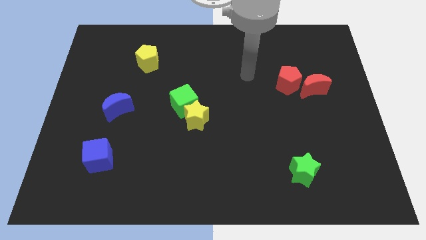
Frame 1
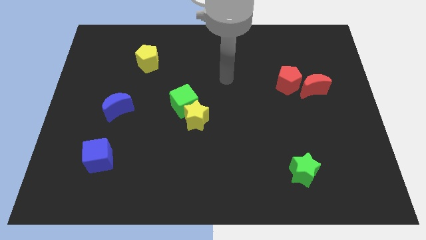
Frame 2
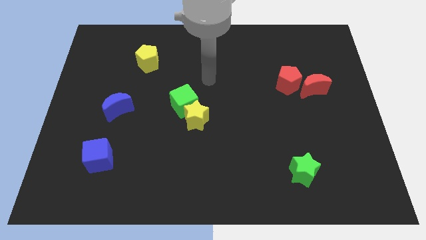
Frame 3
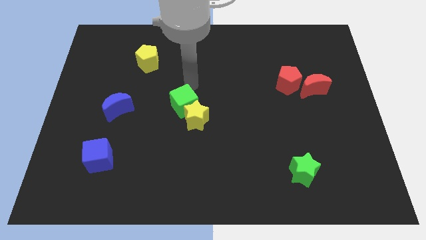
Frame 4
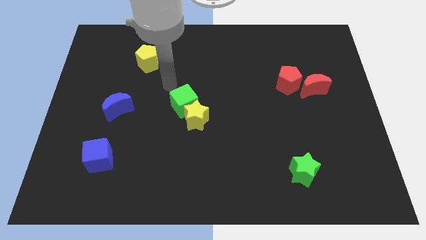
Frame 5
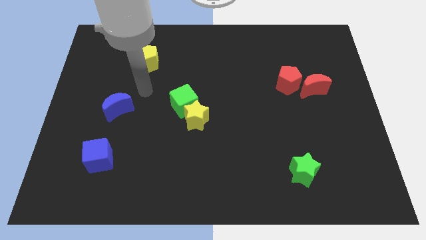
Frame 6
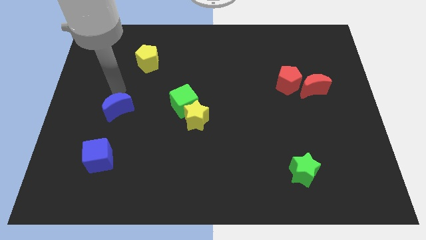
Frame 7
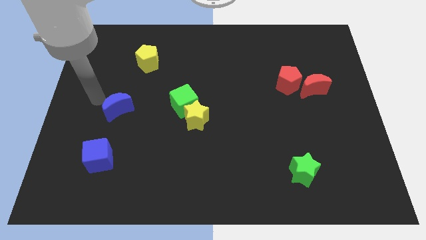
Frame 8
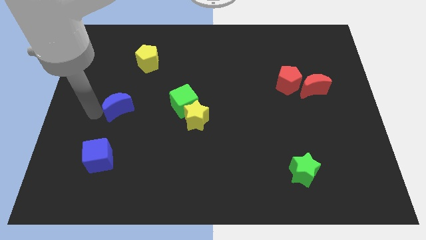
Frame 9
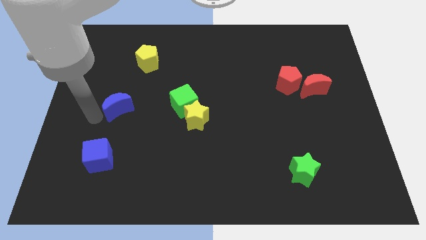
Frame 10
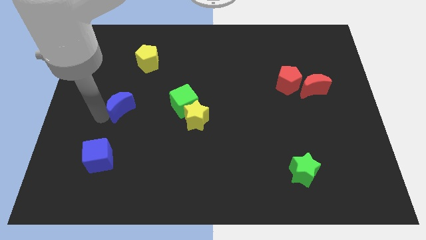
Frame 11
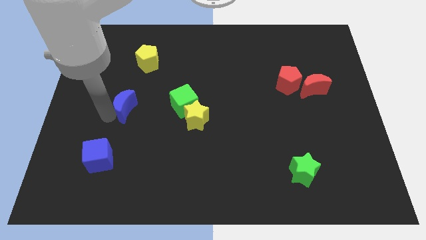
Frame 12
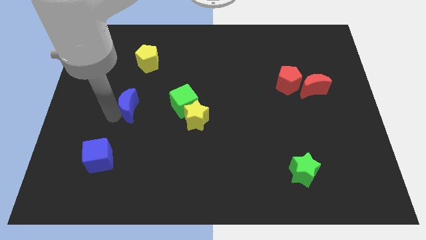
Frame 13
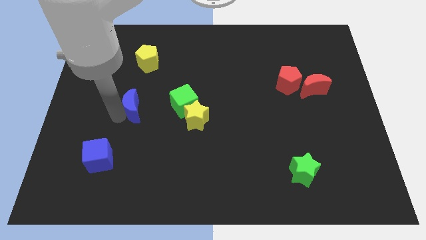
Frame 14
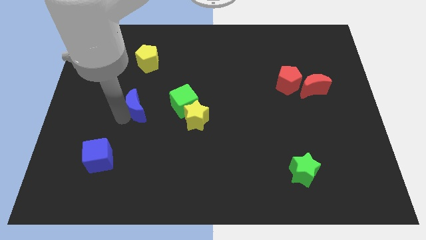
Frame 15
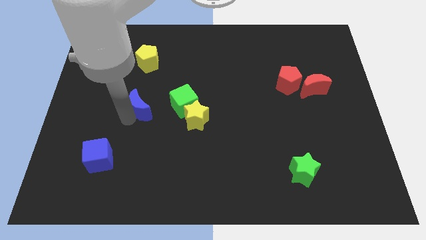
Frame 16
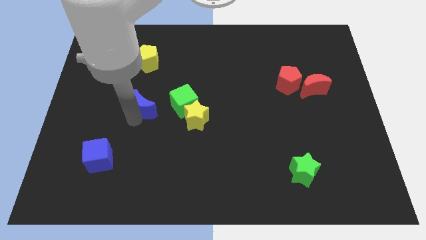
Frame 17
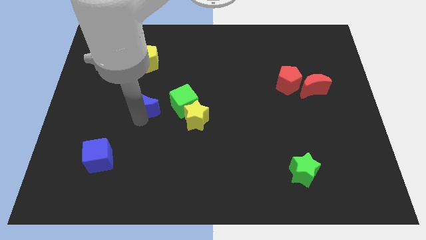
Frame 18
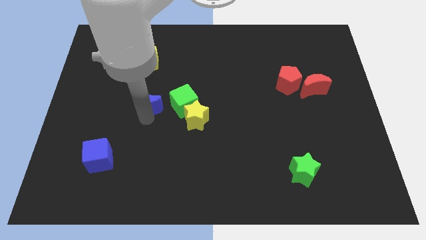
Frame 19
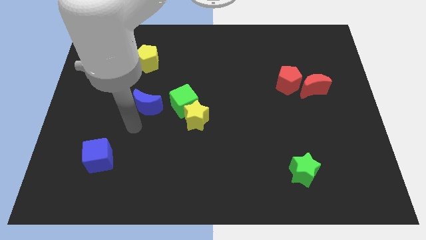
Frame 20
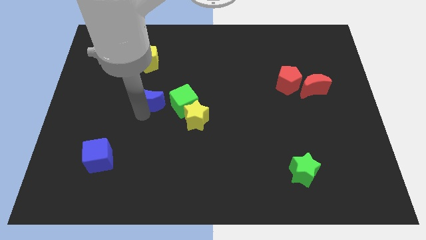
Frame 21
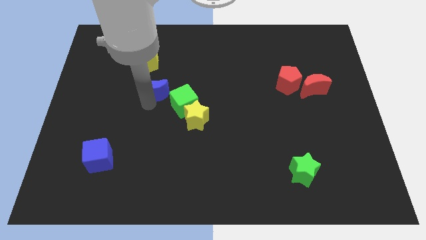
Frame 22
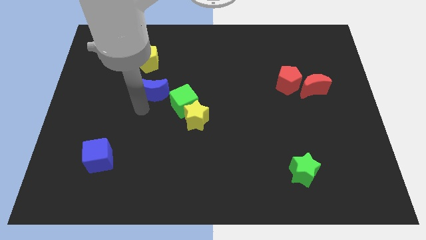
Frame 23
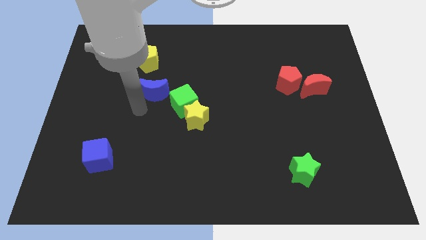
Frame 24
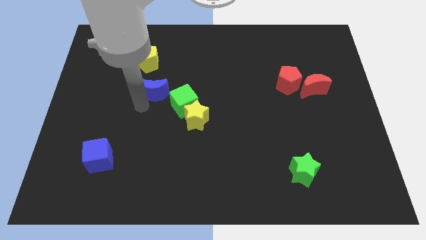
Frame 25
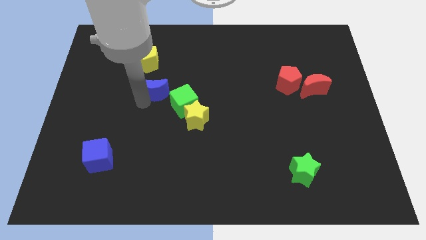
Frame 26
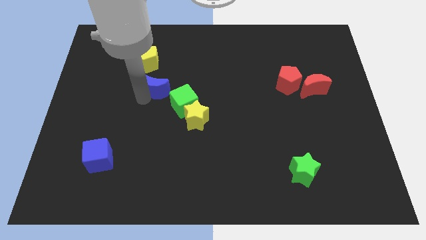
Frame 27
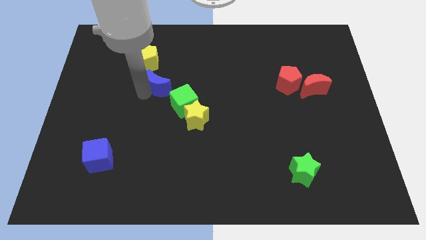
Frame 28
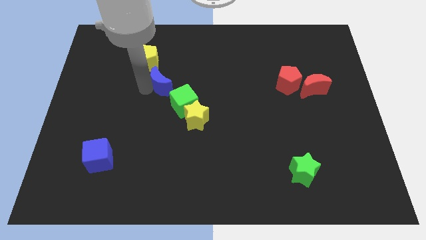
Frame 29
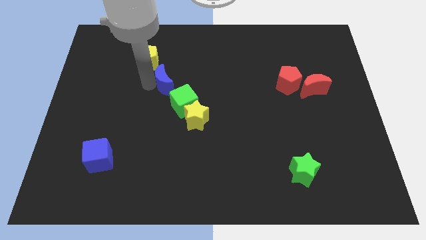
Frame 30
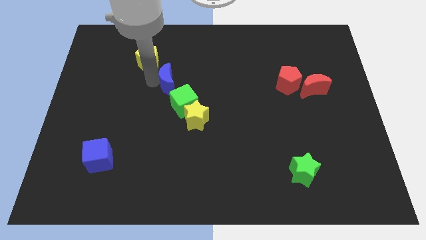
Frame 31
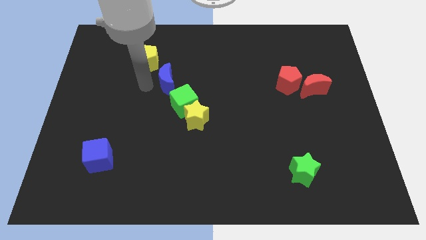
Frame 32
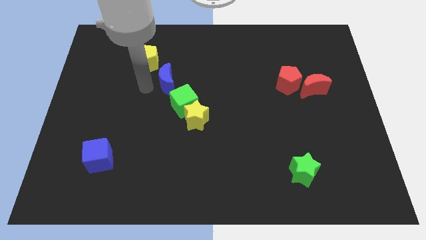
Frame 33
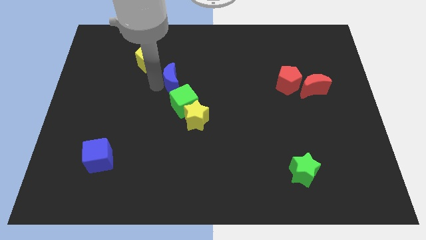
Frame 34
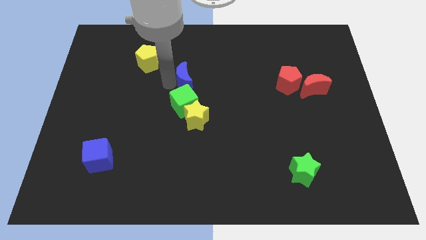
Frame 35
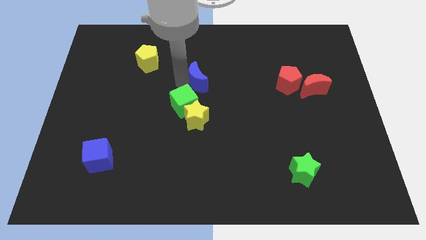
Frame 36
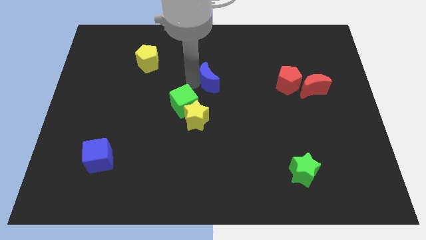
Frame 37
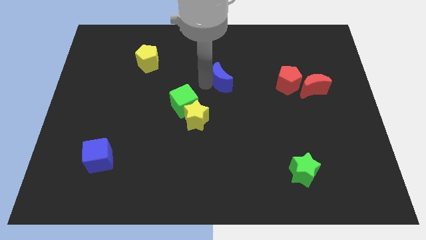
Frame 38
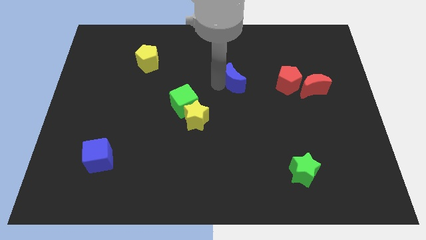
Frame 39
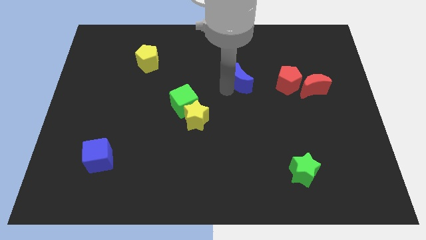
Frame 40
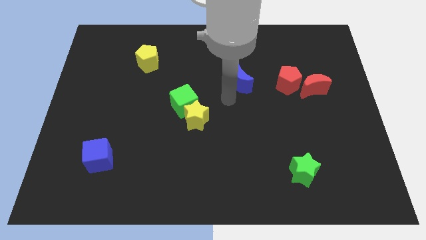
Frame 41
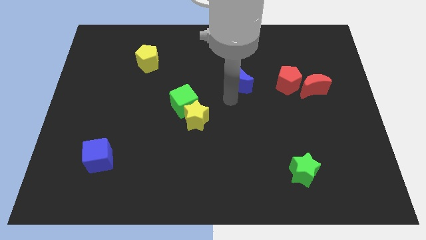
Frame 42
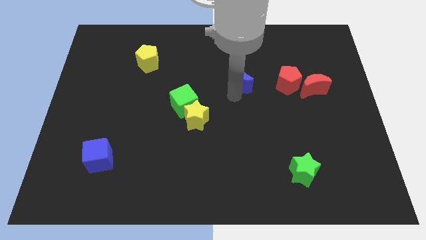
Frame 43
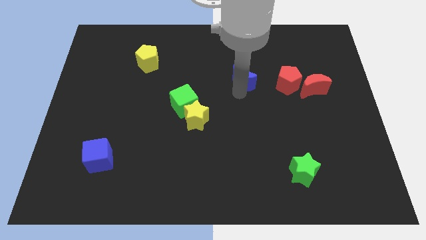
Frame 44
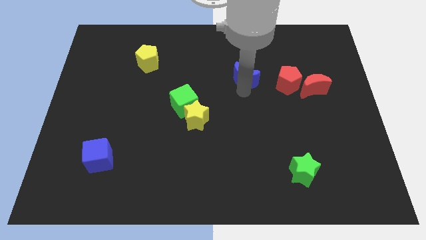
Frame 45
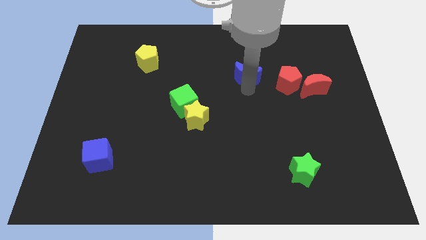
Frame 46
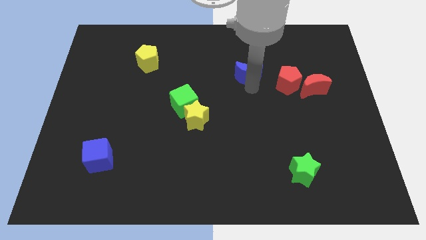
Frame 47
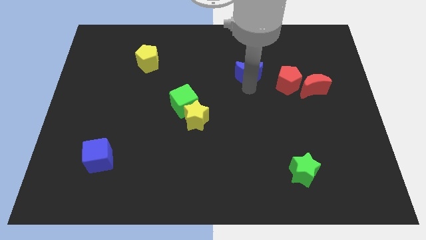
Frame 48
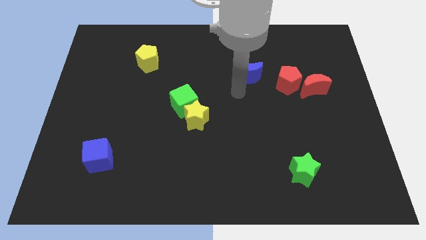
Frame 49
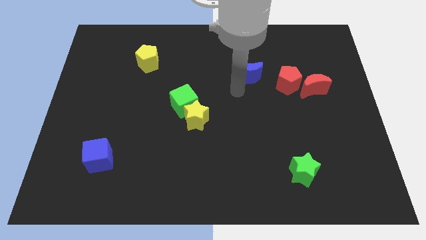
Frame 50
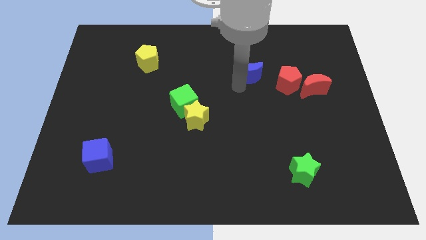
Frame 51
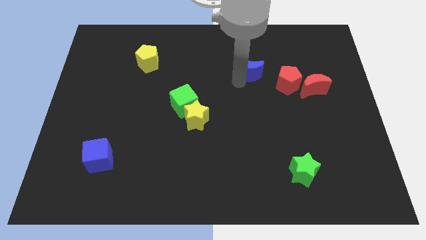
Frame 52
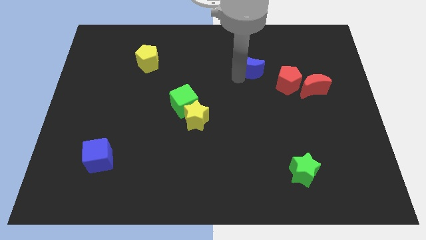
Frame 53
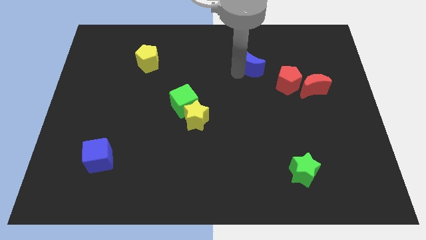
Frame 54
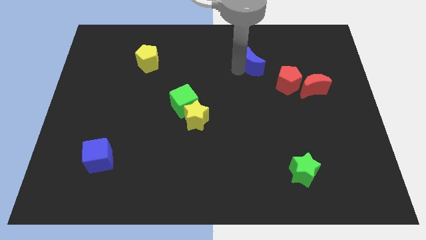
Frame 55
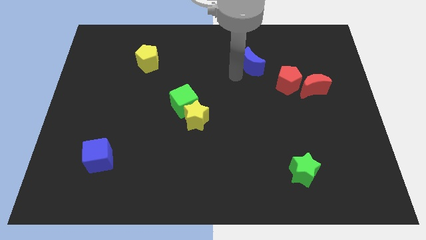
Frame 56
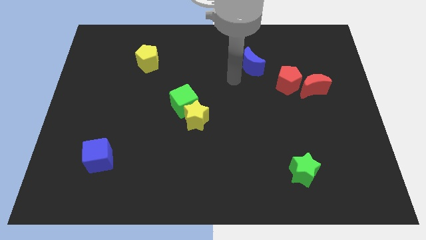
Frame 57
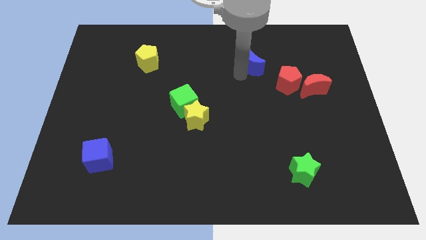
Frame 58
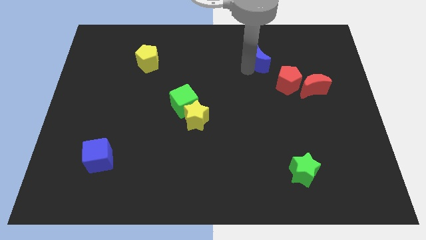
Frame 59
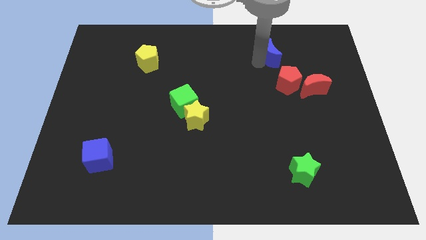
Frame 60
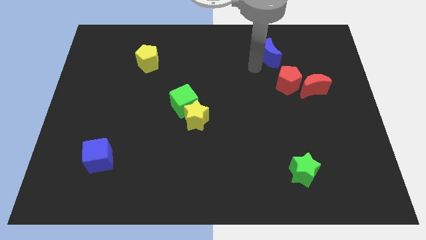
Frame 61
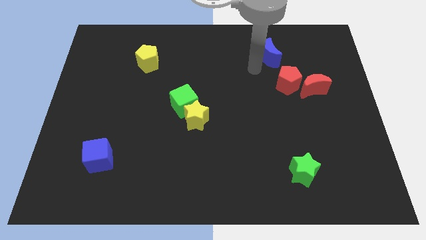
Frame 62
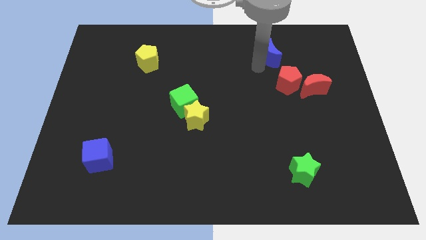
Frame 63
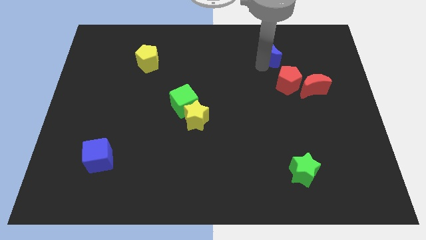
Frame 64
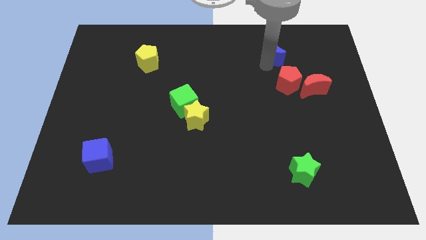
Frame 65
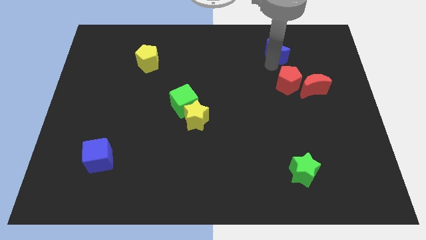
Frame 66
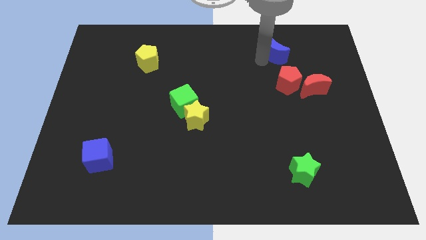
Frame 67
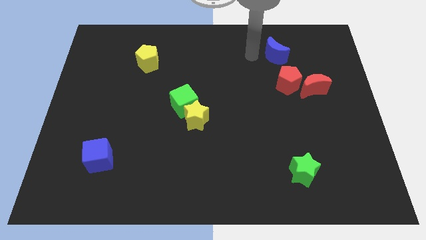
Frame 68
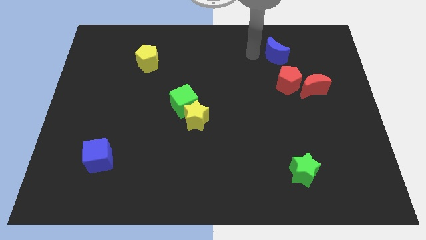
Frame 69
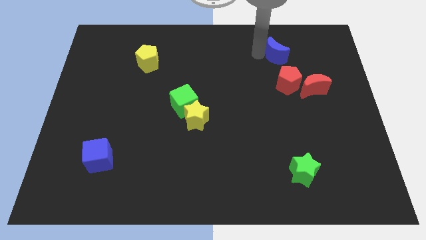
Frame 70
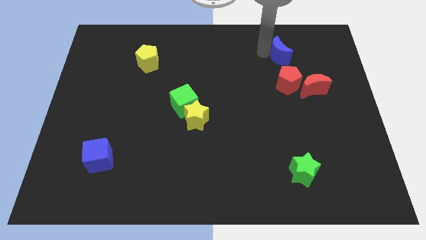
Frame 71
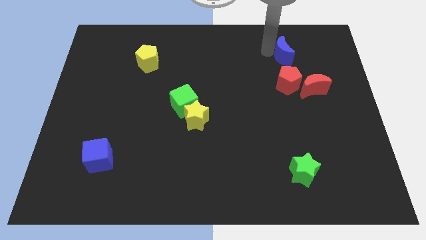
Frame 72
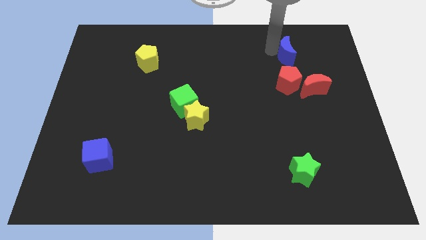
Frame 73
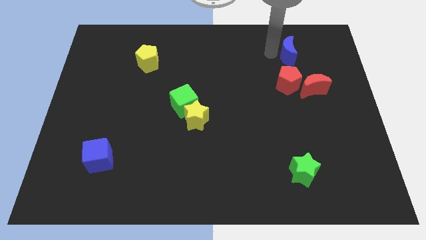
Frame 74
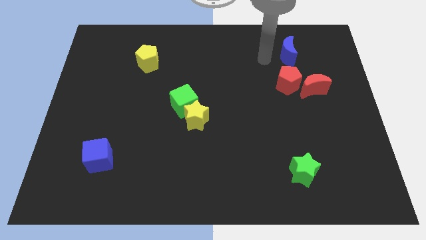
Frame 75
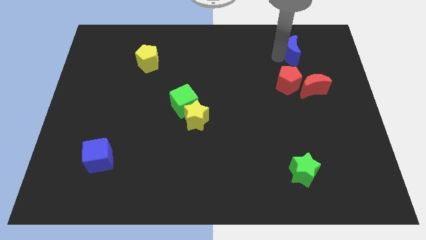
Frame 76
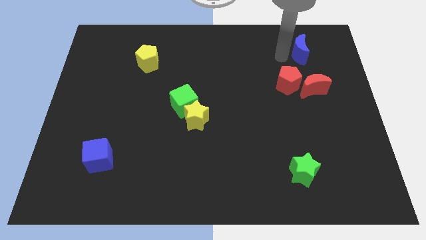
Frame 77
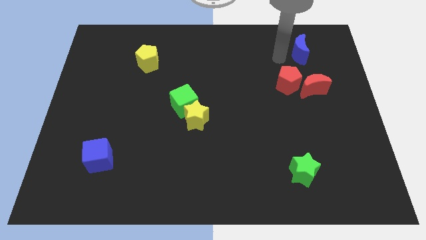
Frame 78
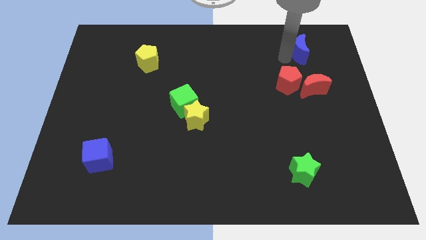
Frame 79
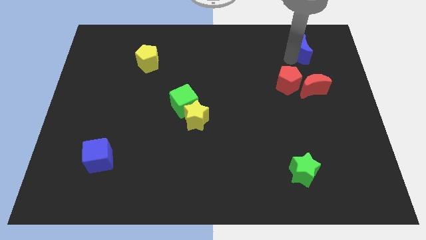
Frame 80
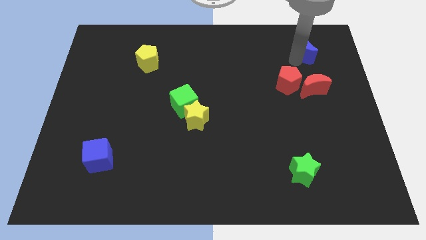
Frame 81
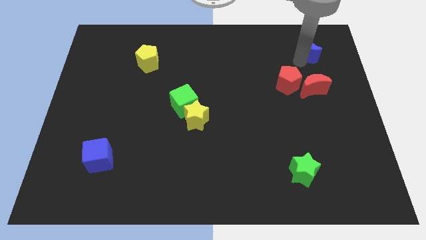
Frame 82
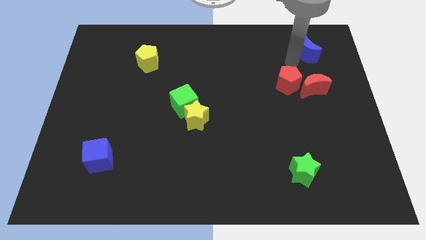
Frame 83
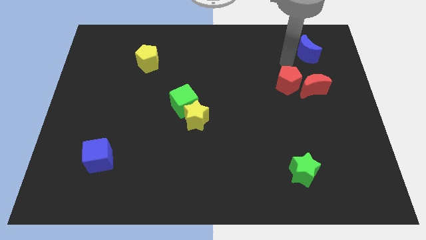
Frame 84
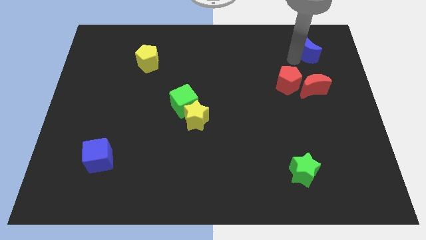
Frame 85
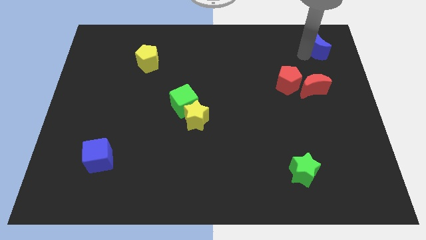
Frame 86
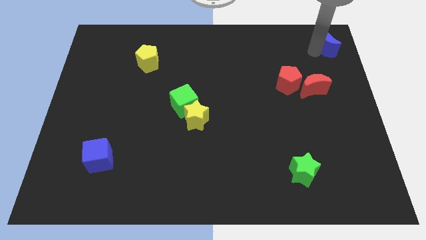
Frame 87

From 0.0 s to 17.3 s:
slide the blue moon to the top right corner
